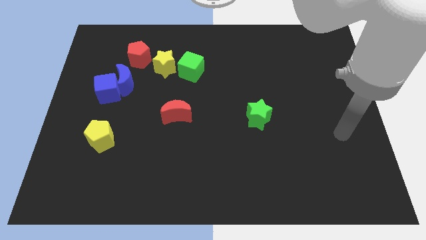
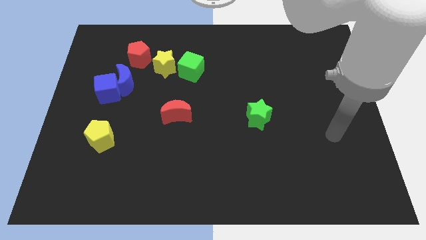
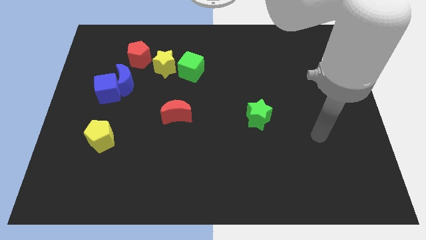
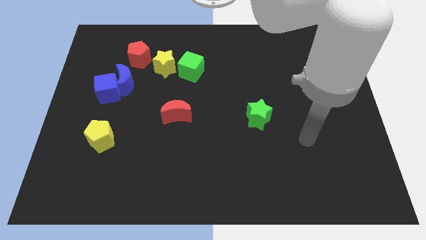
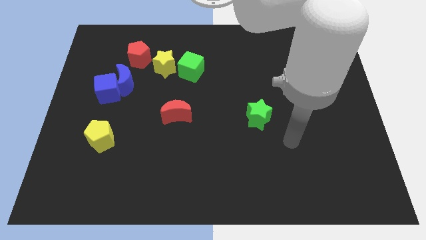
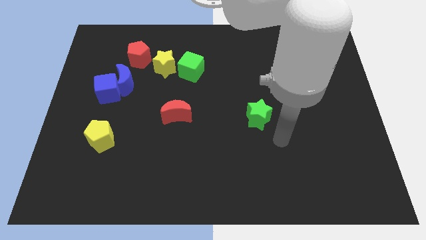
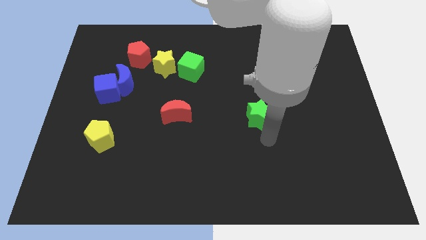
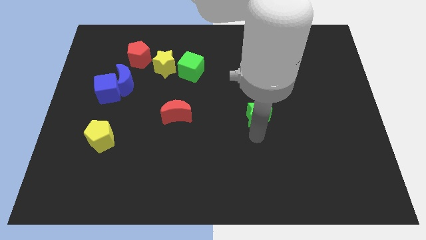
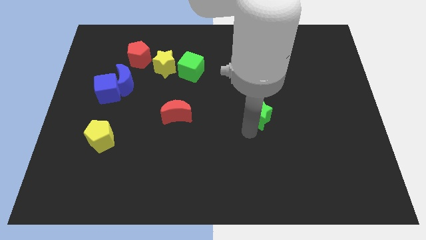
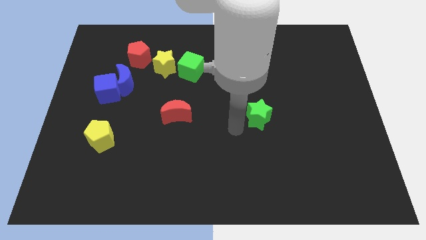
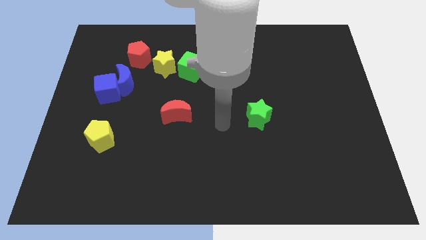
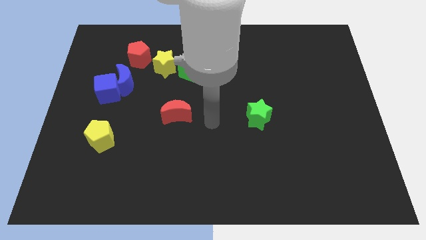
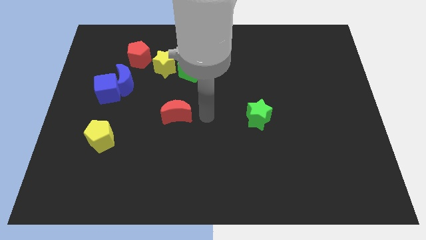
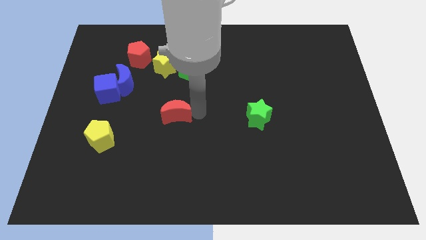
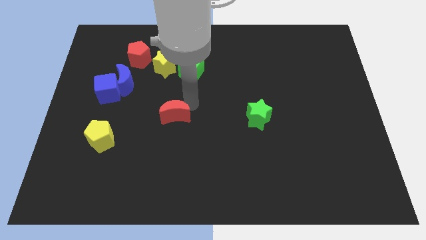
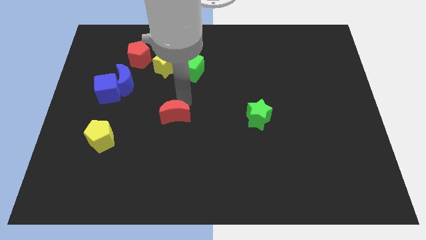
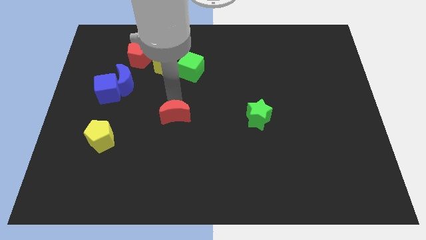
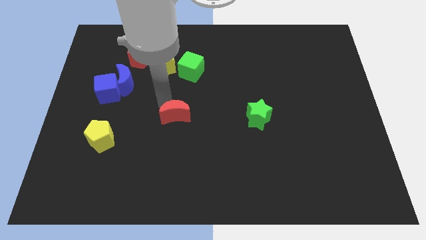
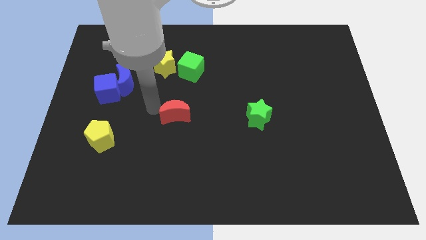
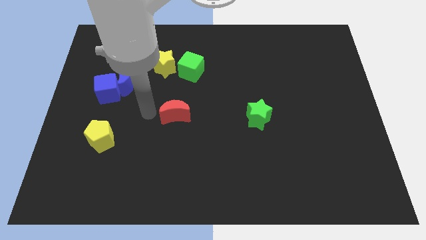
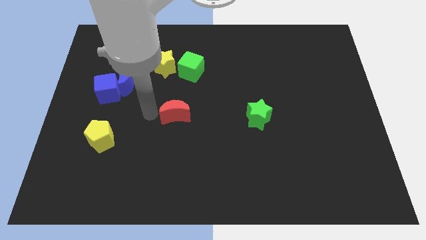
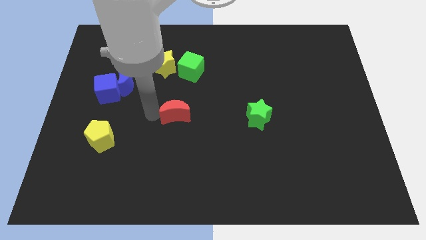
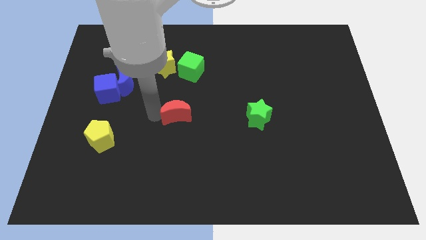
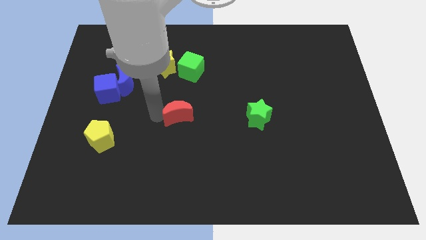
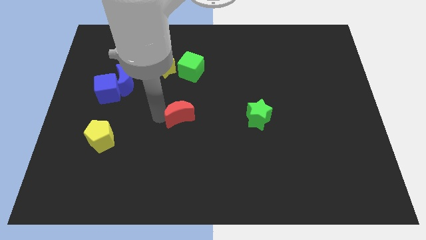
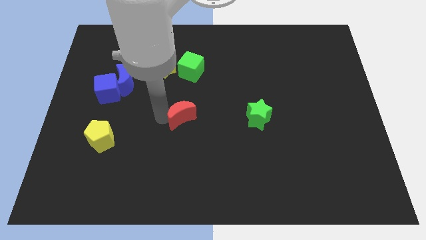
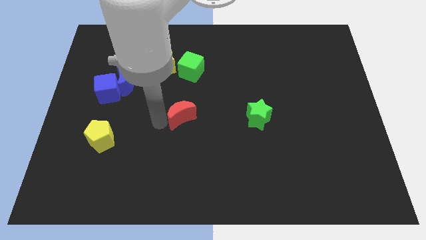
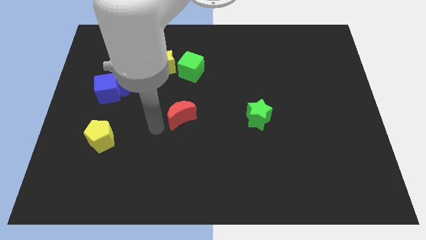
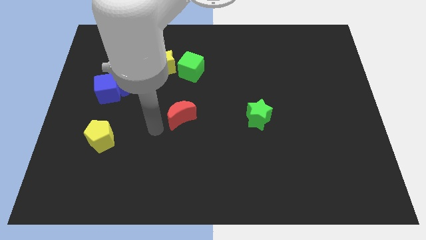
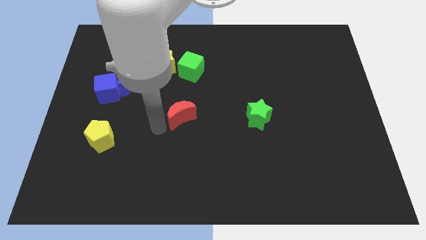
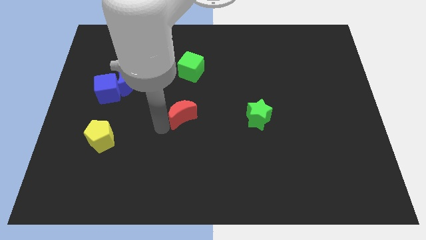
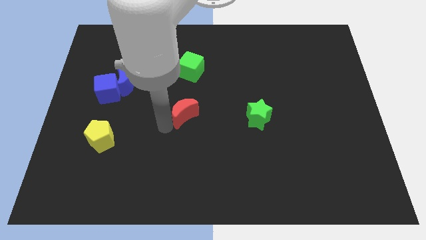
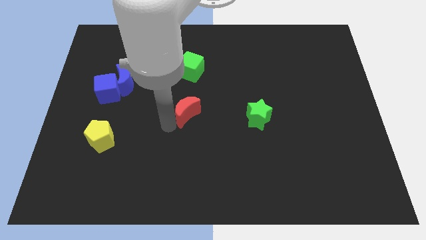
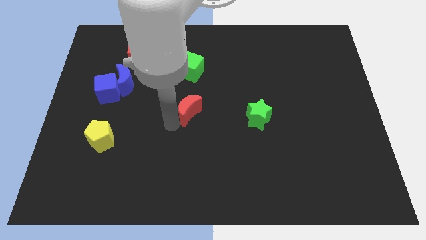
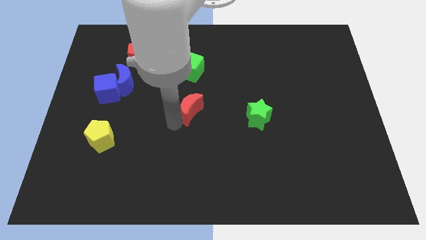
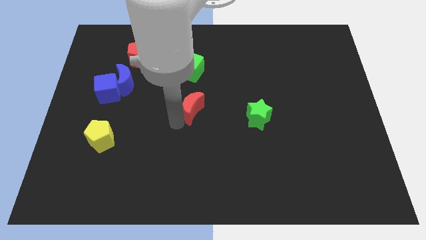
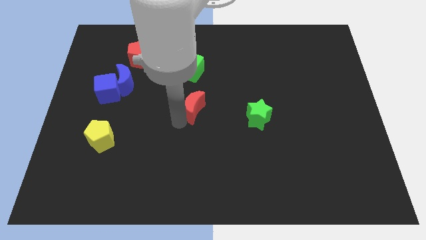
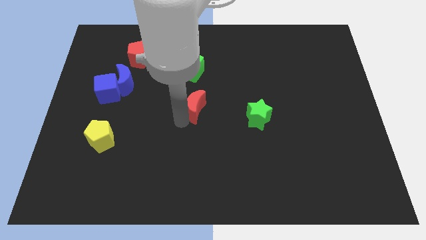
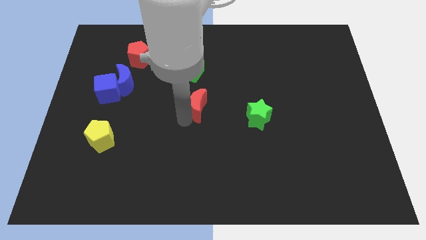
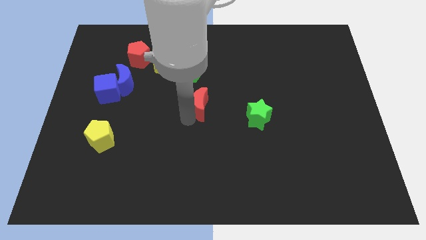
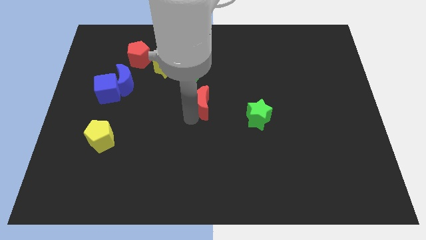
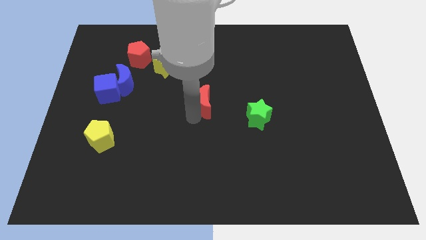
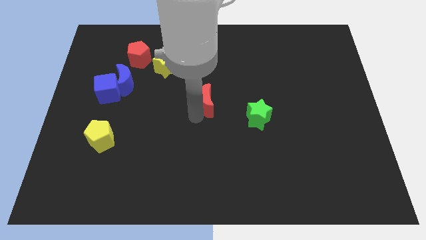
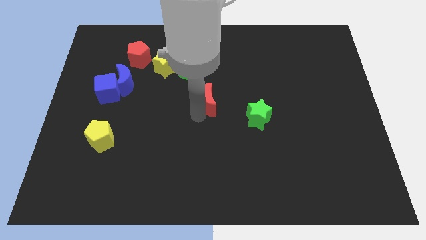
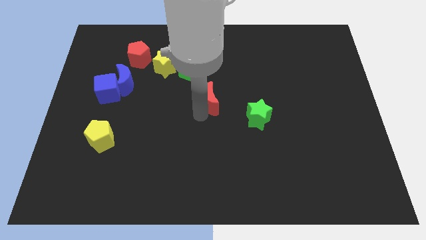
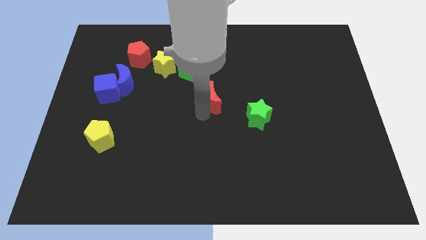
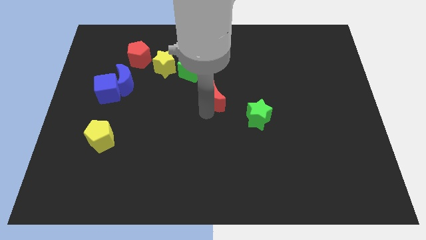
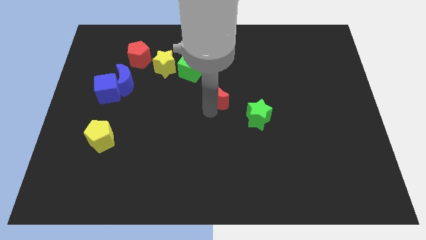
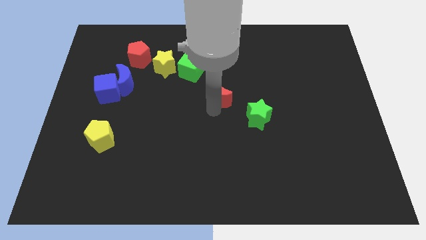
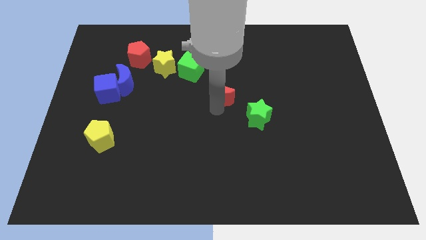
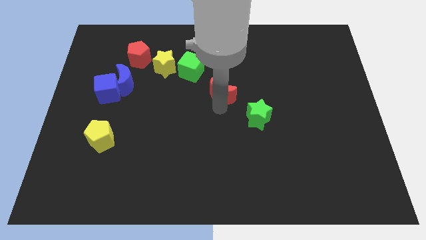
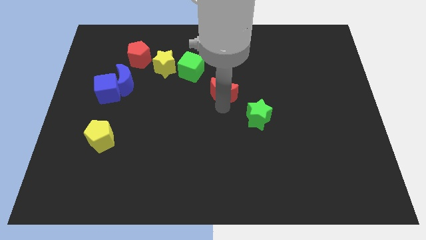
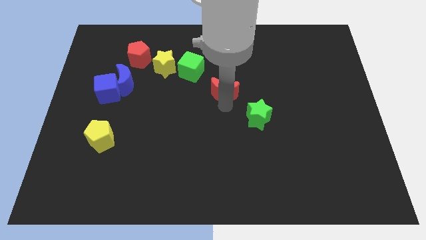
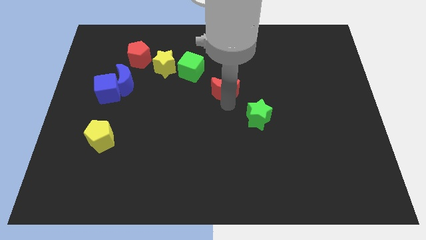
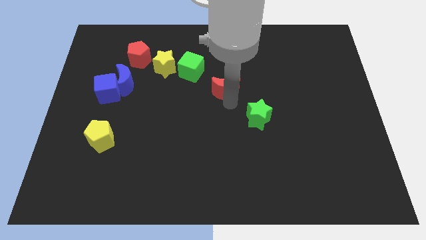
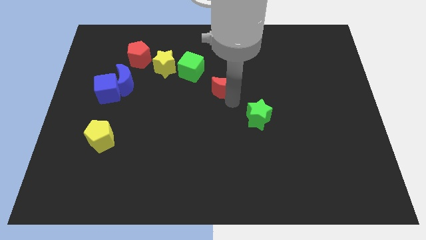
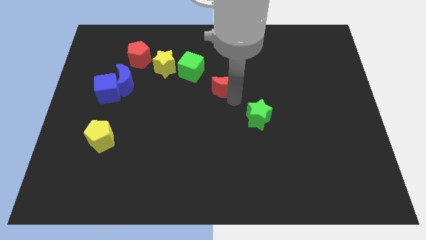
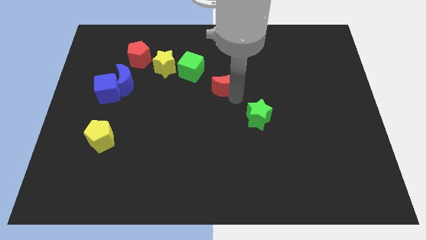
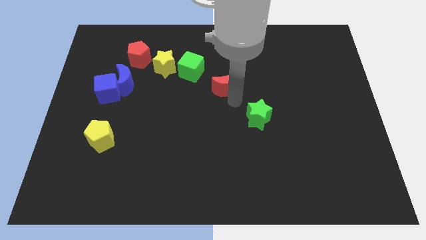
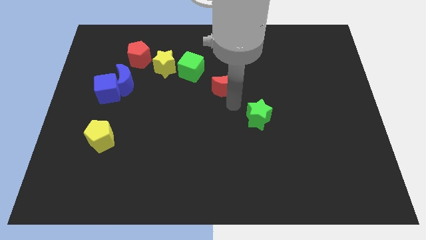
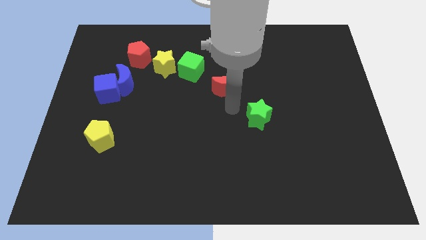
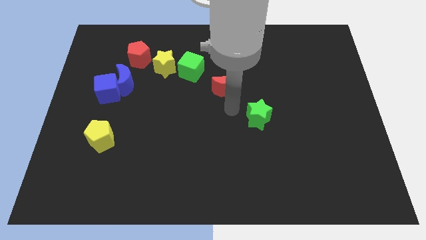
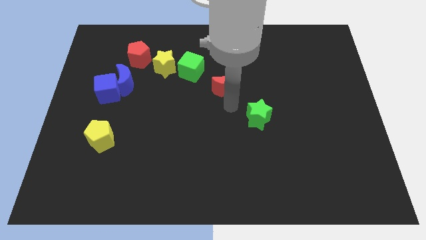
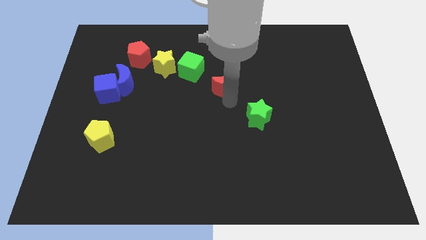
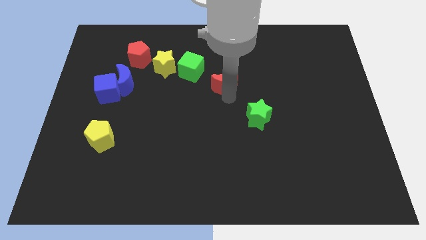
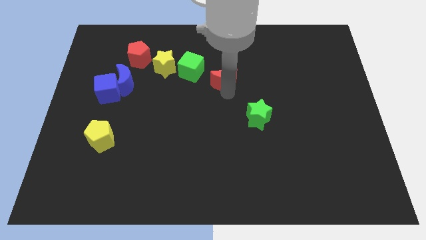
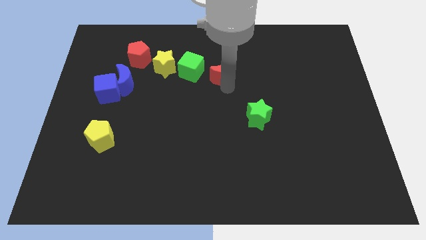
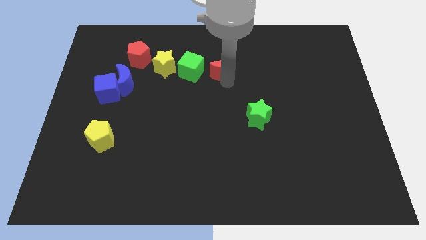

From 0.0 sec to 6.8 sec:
slide the red moon a little up

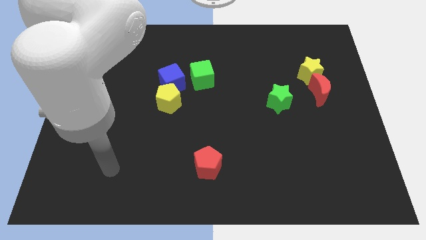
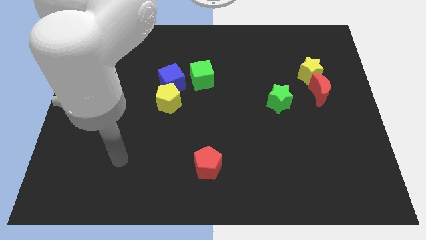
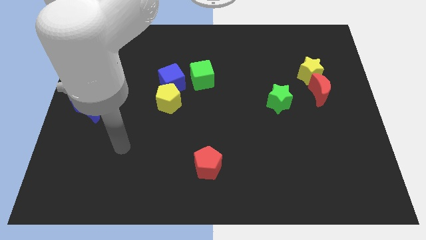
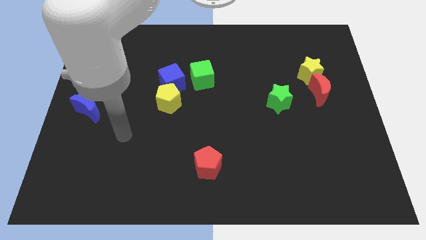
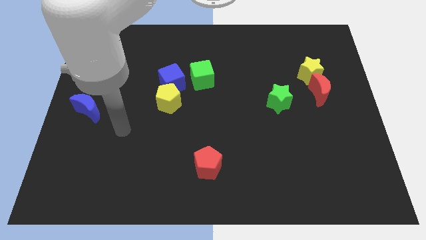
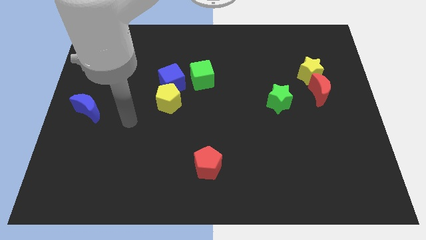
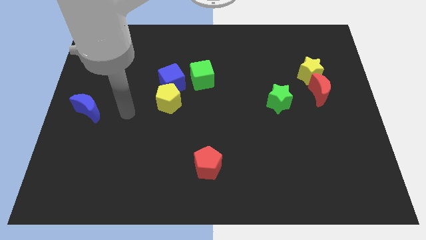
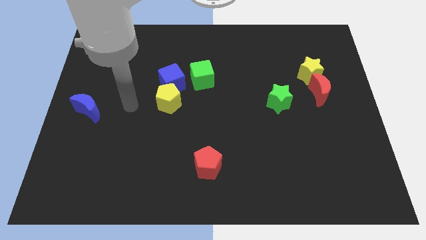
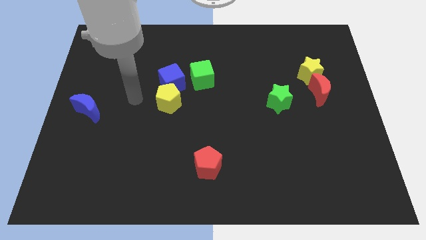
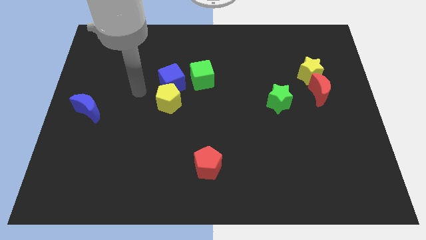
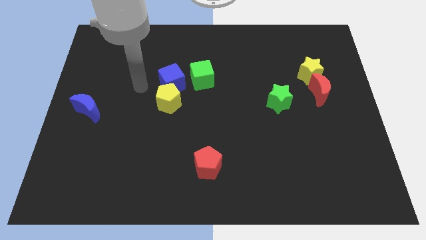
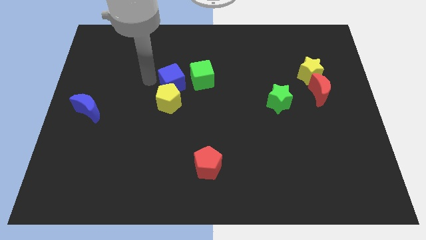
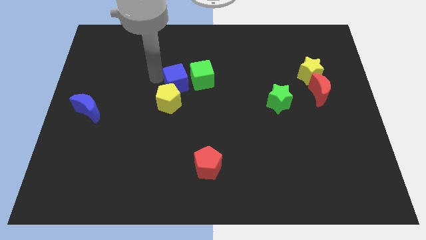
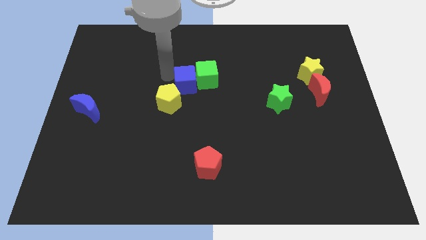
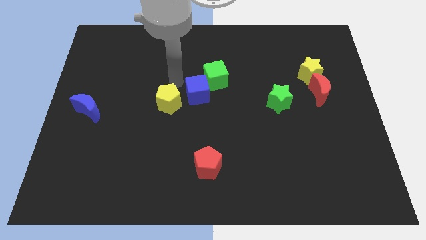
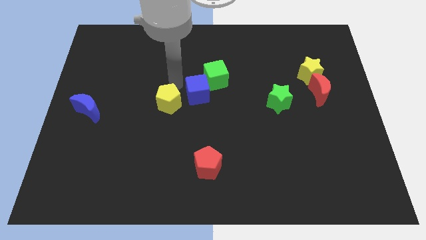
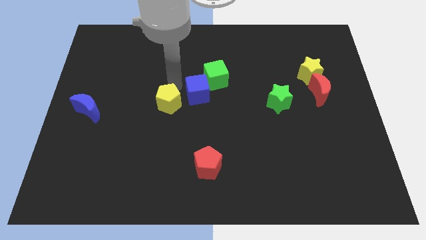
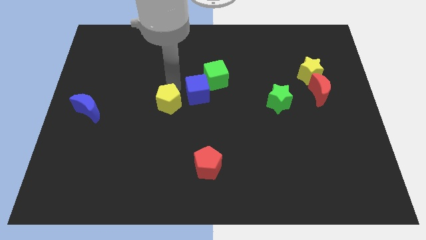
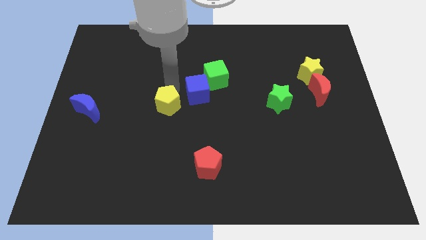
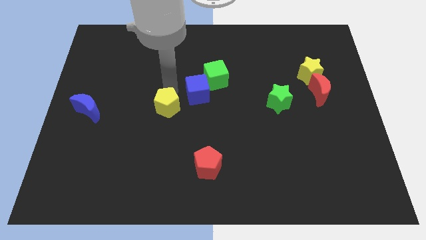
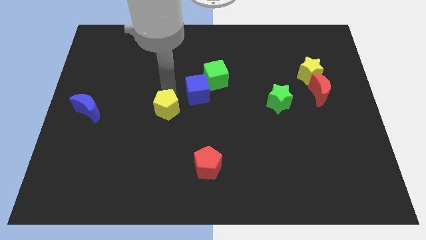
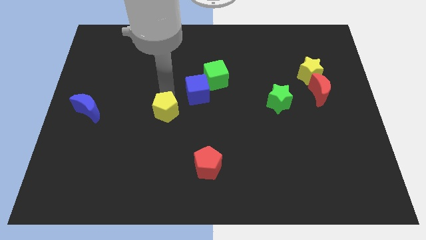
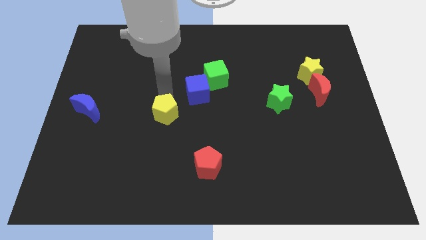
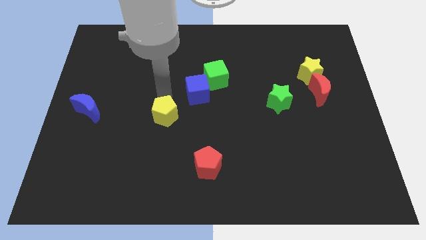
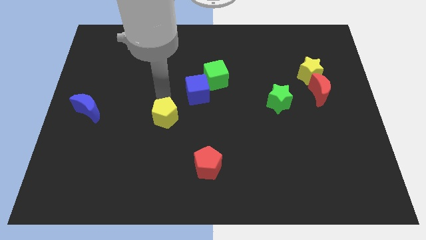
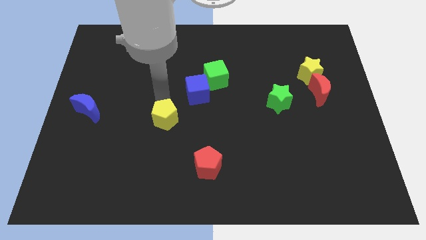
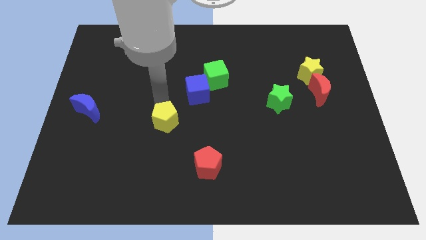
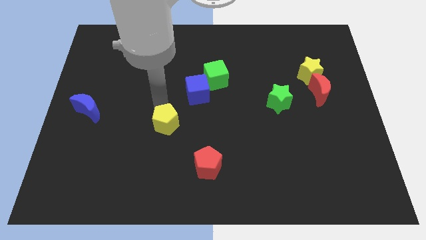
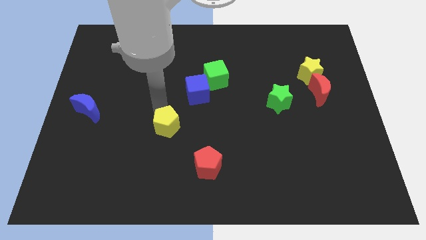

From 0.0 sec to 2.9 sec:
push the yellow pentagon somewhat downwards
